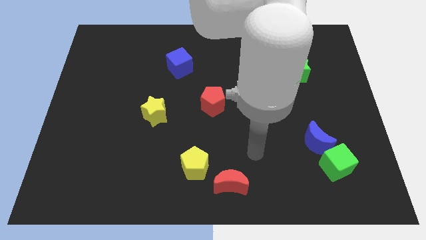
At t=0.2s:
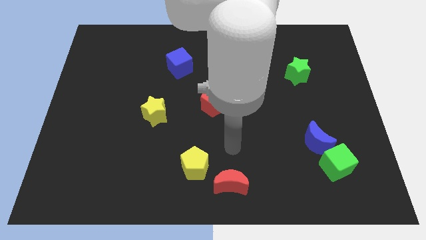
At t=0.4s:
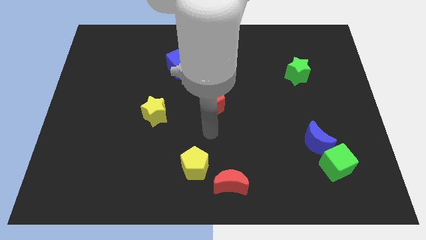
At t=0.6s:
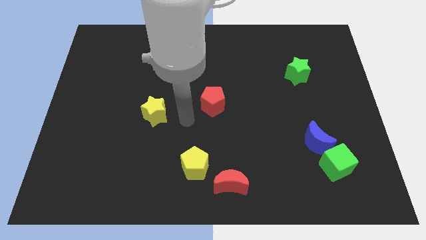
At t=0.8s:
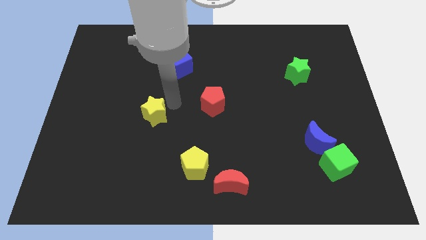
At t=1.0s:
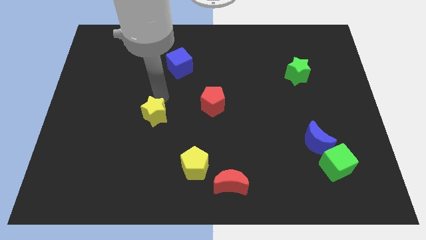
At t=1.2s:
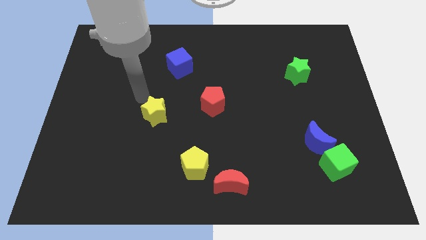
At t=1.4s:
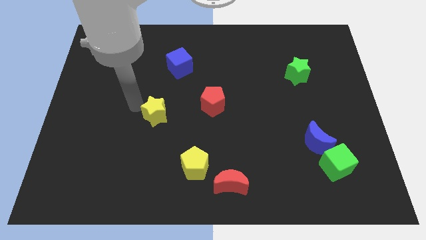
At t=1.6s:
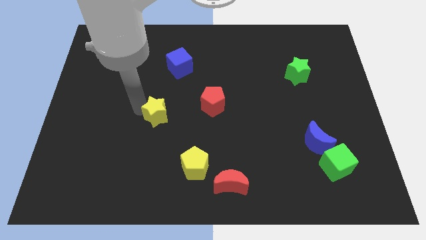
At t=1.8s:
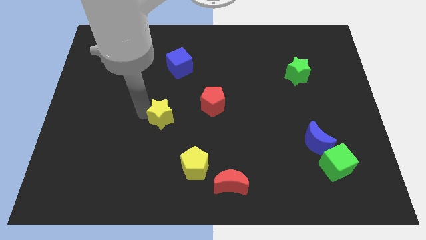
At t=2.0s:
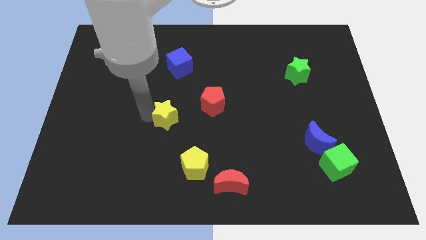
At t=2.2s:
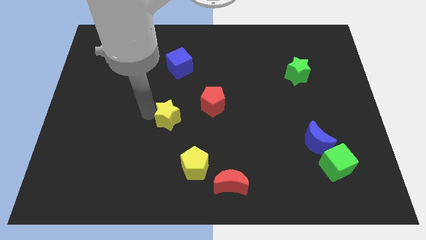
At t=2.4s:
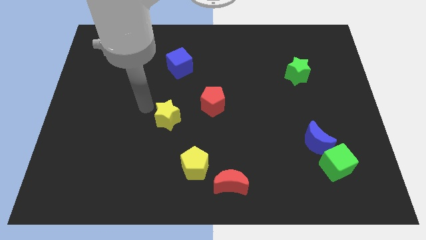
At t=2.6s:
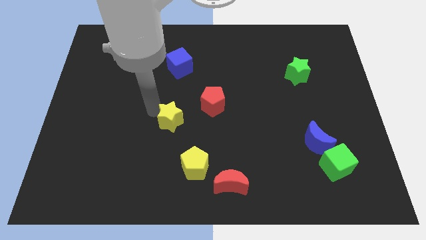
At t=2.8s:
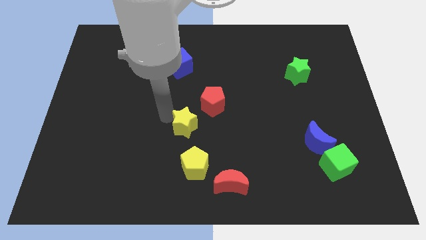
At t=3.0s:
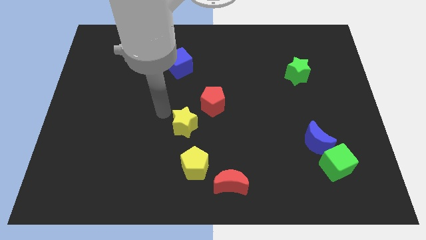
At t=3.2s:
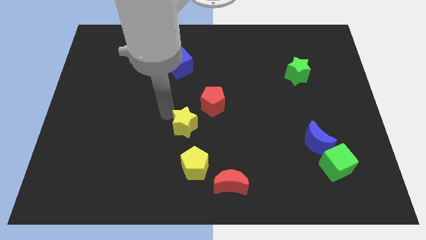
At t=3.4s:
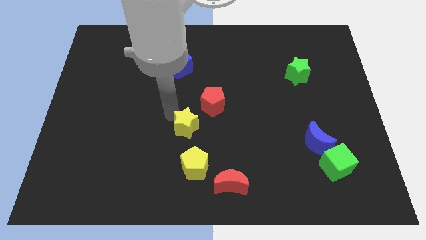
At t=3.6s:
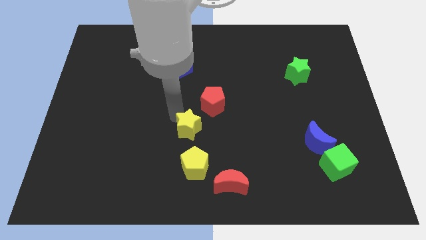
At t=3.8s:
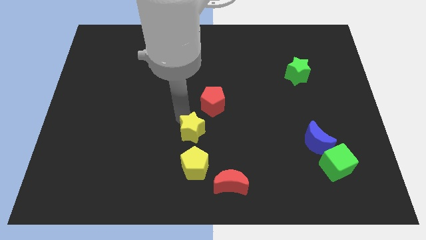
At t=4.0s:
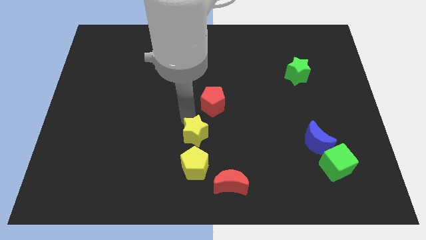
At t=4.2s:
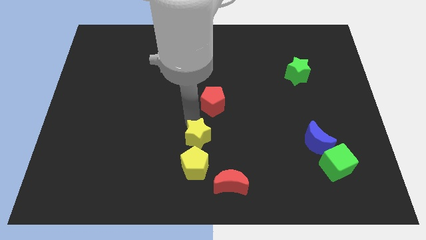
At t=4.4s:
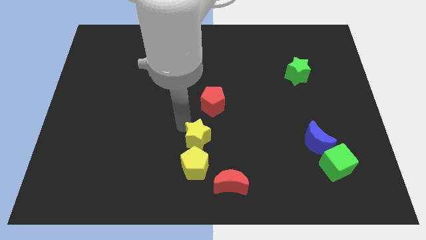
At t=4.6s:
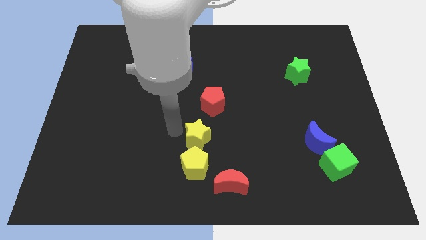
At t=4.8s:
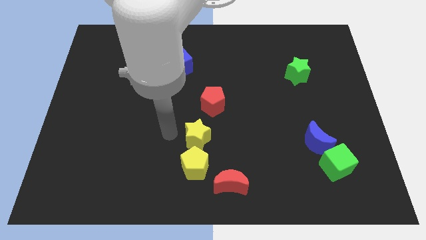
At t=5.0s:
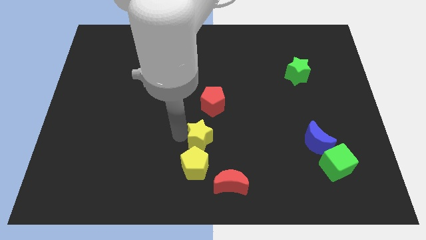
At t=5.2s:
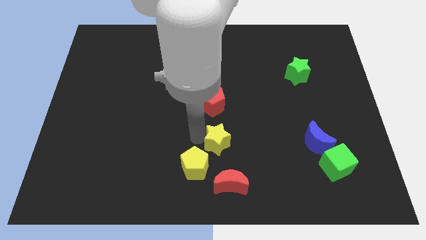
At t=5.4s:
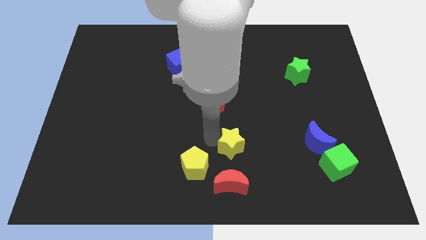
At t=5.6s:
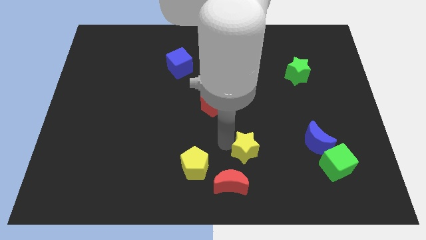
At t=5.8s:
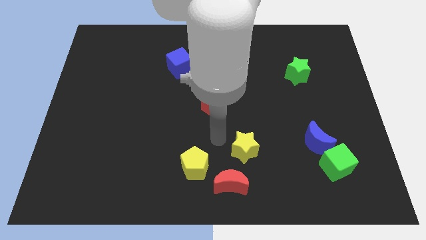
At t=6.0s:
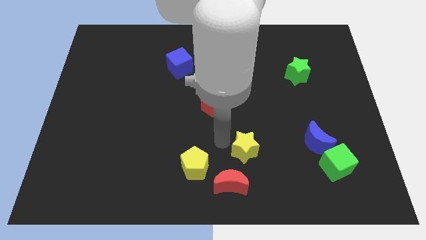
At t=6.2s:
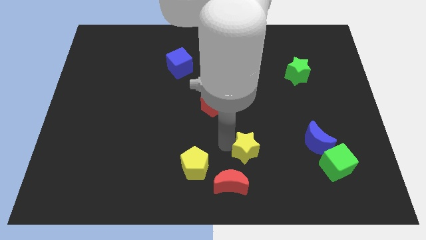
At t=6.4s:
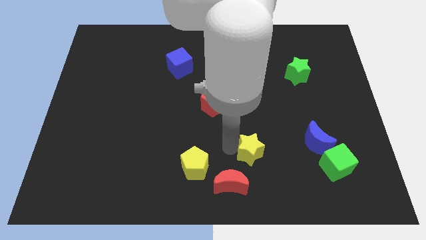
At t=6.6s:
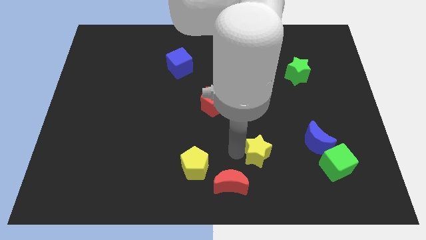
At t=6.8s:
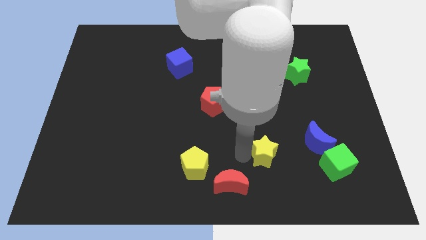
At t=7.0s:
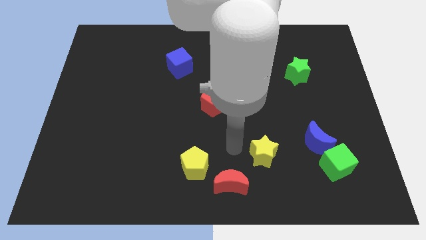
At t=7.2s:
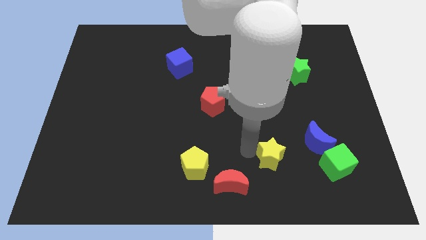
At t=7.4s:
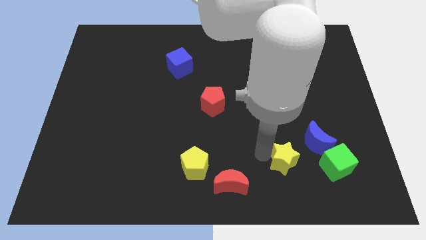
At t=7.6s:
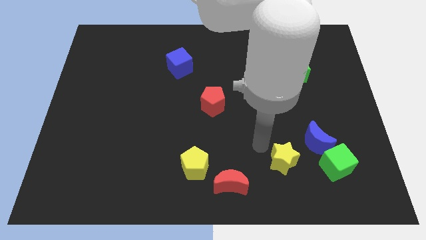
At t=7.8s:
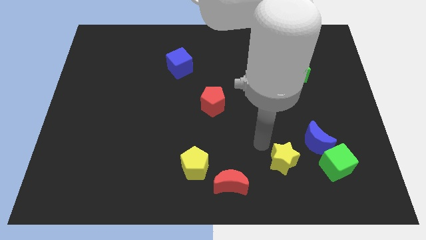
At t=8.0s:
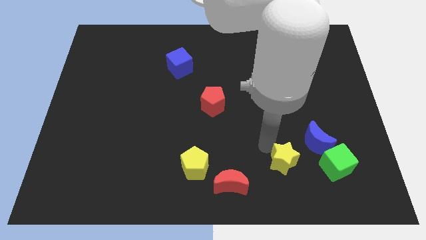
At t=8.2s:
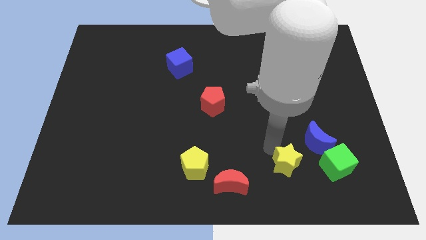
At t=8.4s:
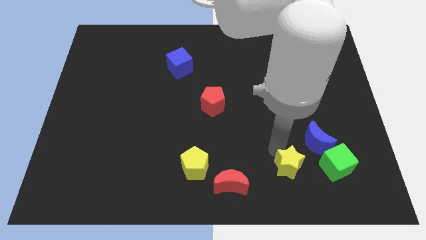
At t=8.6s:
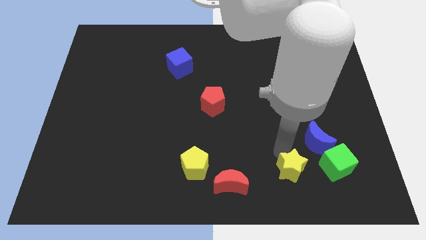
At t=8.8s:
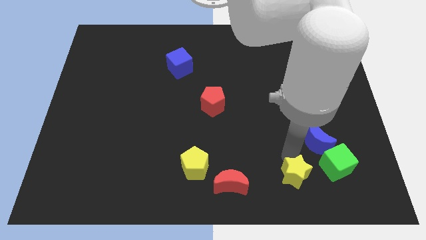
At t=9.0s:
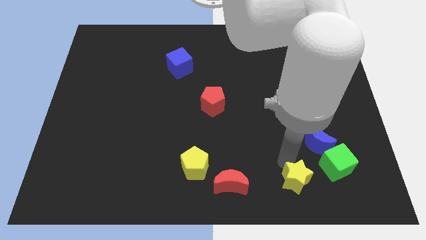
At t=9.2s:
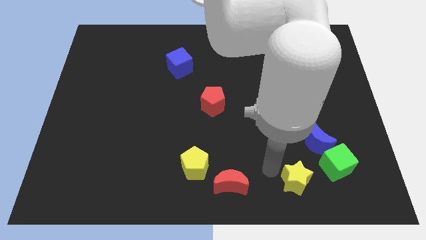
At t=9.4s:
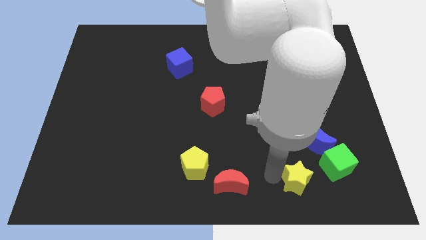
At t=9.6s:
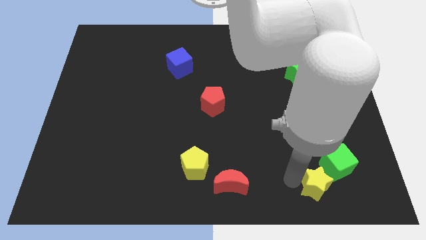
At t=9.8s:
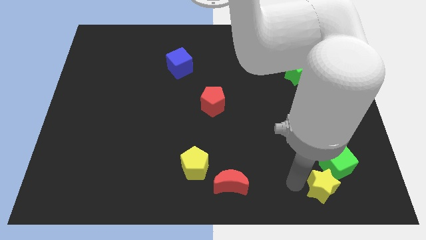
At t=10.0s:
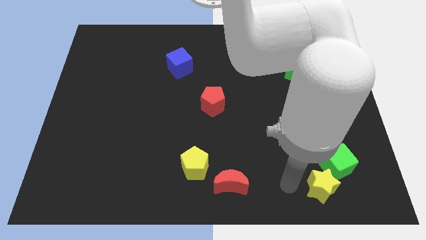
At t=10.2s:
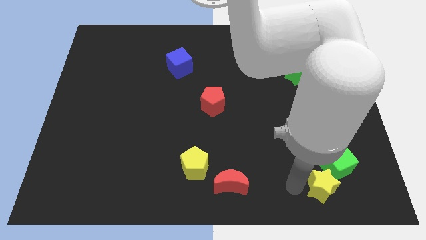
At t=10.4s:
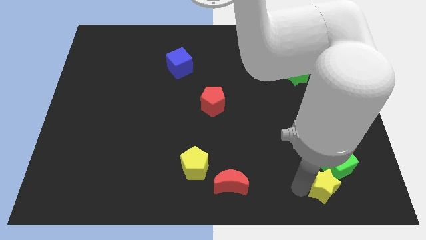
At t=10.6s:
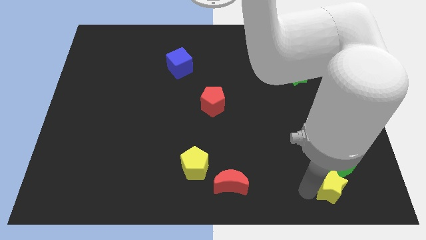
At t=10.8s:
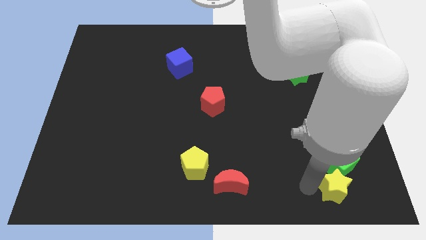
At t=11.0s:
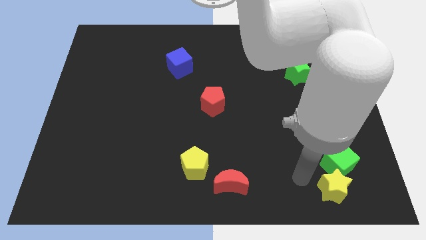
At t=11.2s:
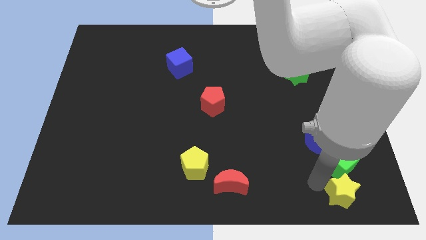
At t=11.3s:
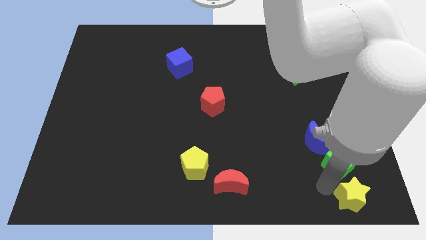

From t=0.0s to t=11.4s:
push the yellow star to the bottom right of the board
